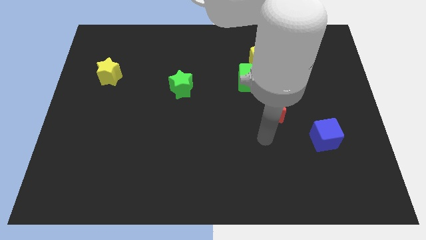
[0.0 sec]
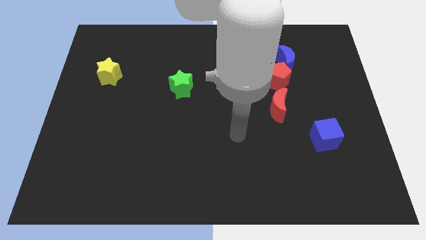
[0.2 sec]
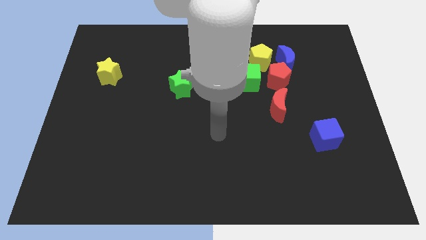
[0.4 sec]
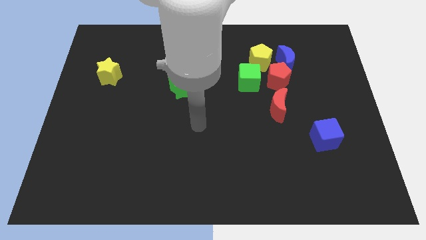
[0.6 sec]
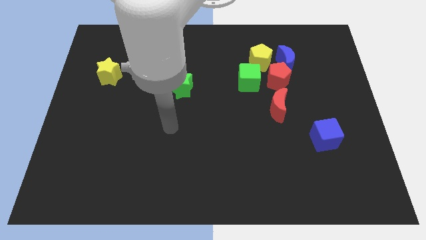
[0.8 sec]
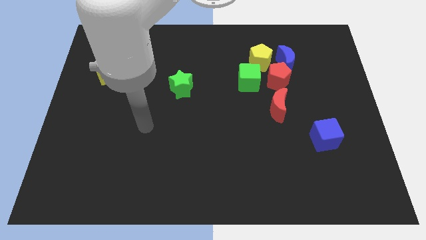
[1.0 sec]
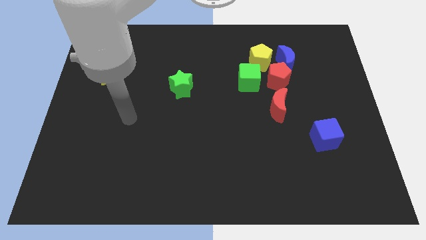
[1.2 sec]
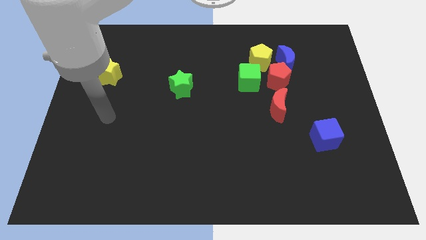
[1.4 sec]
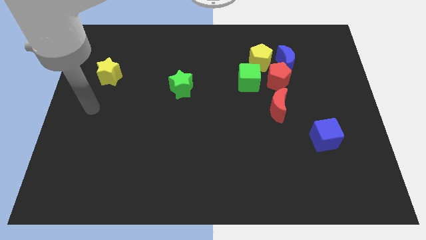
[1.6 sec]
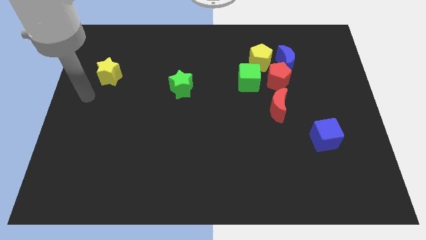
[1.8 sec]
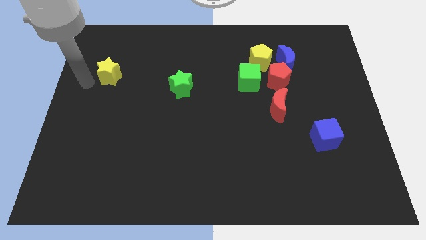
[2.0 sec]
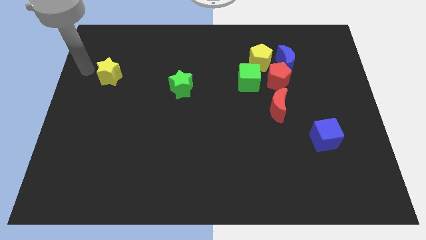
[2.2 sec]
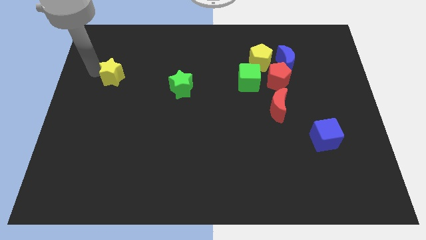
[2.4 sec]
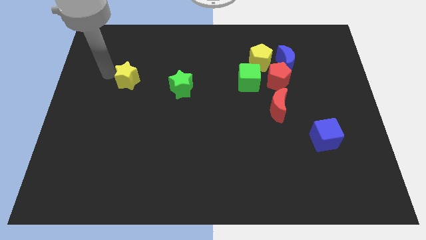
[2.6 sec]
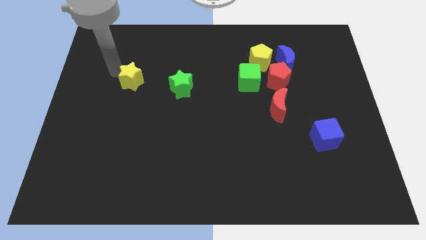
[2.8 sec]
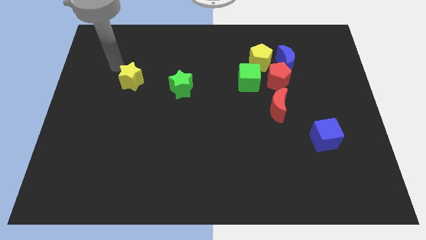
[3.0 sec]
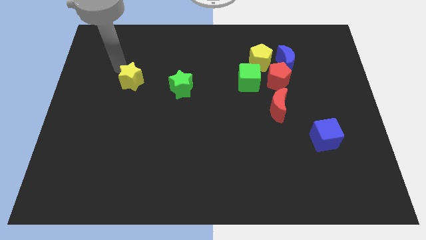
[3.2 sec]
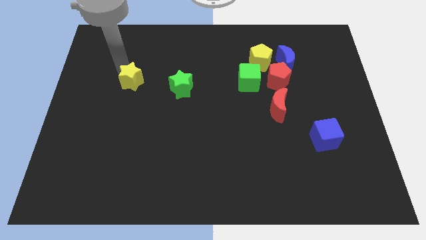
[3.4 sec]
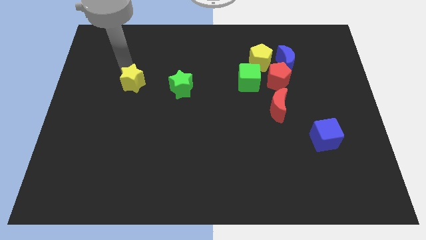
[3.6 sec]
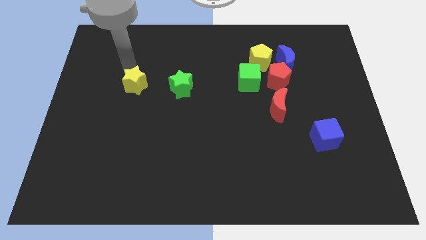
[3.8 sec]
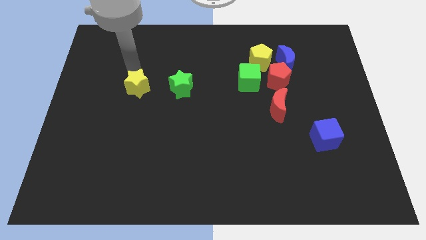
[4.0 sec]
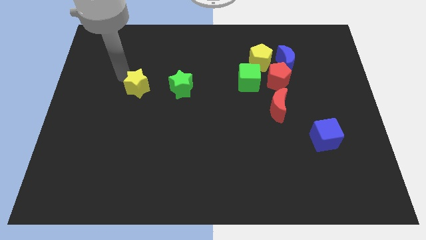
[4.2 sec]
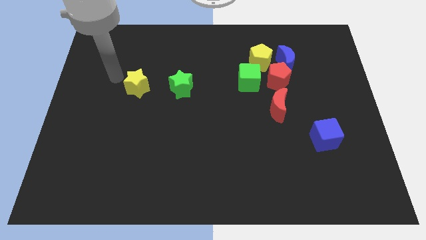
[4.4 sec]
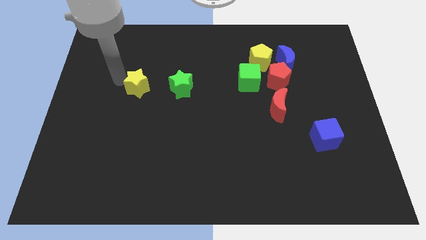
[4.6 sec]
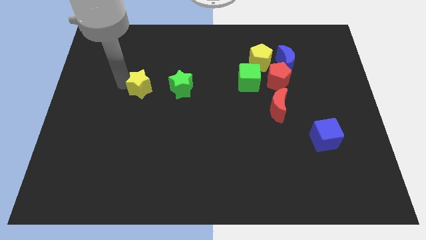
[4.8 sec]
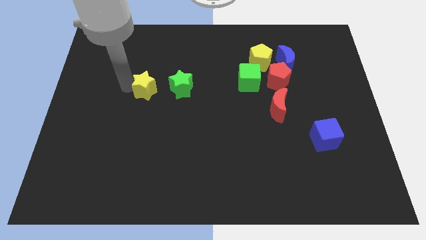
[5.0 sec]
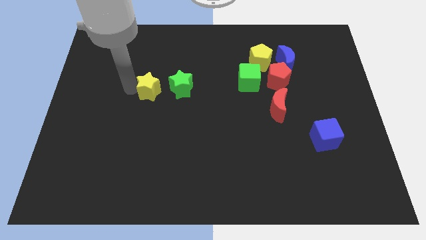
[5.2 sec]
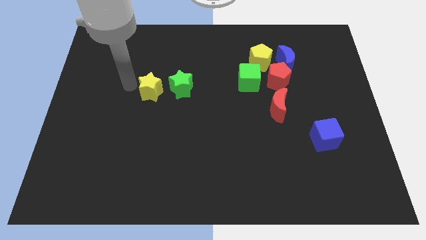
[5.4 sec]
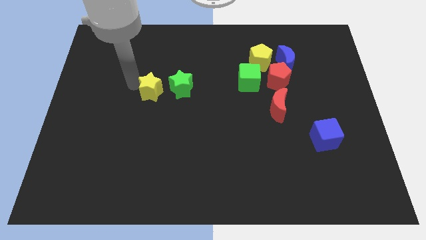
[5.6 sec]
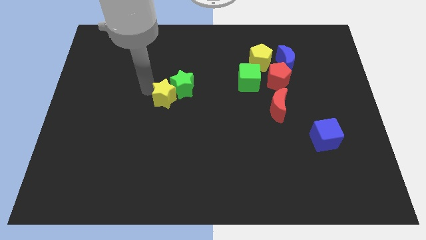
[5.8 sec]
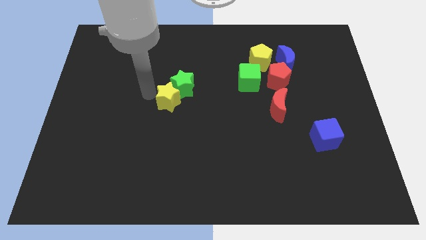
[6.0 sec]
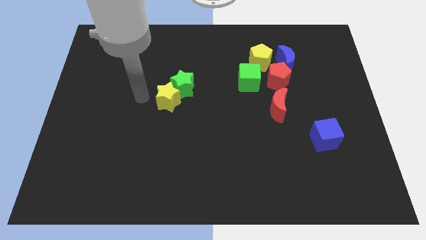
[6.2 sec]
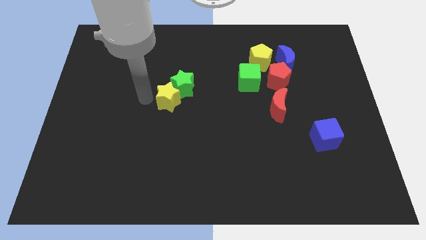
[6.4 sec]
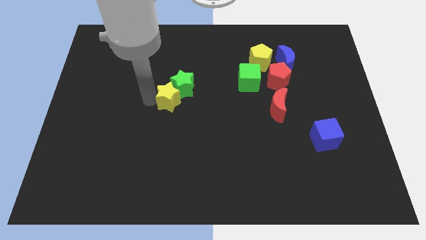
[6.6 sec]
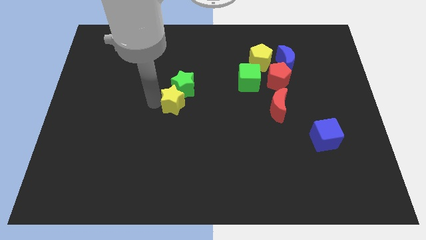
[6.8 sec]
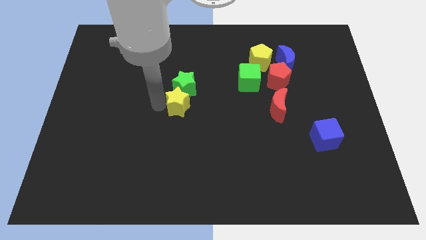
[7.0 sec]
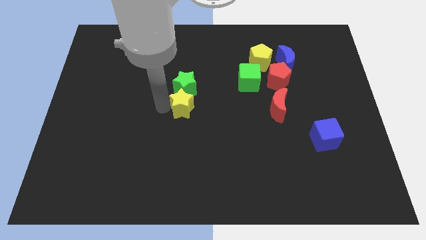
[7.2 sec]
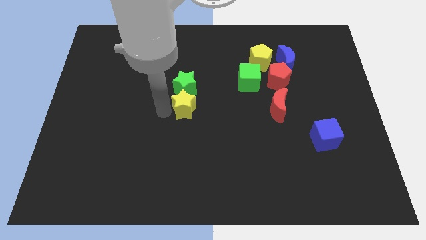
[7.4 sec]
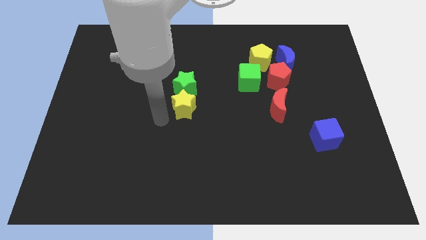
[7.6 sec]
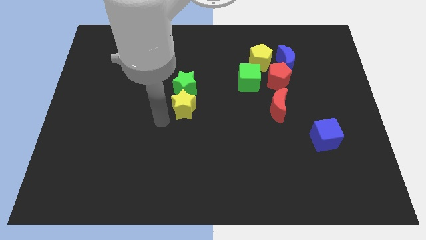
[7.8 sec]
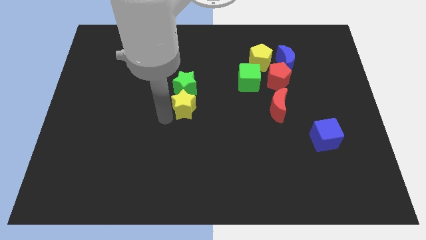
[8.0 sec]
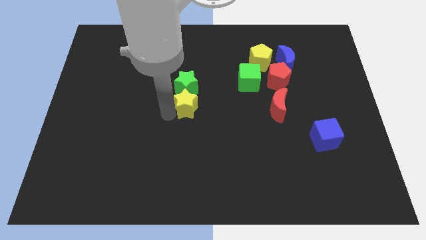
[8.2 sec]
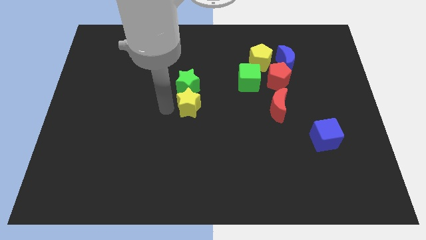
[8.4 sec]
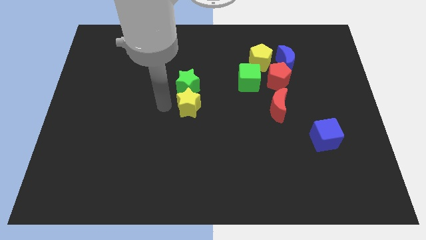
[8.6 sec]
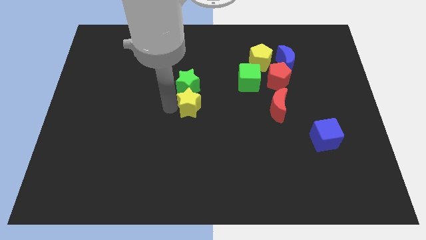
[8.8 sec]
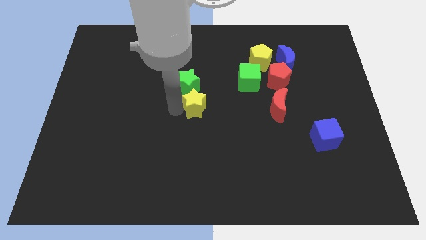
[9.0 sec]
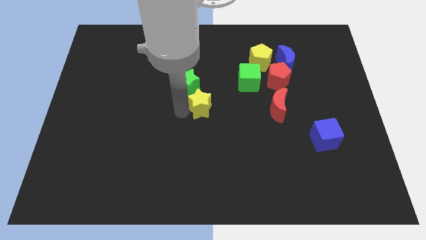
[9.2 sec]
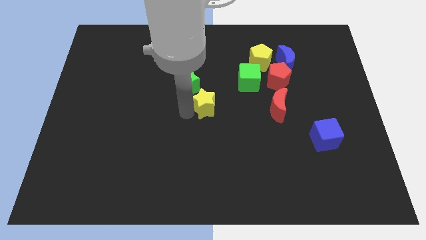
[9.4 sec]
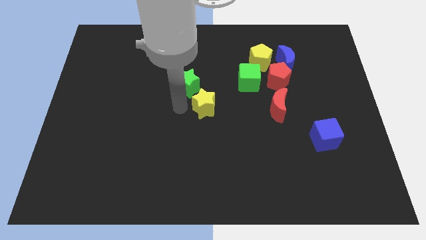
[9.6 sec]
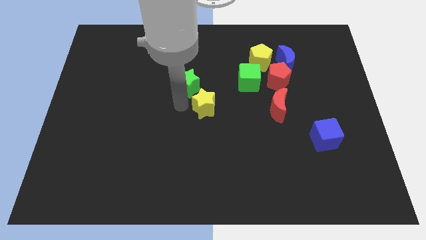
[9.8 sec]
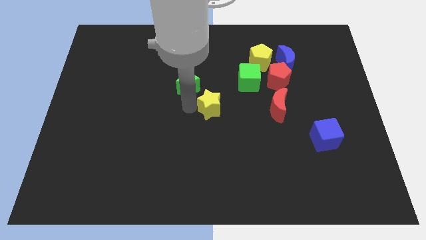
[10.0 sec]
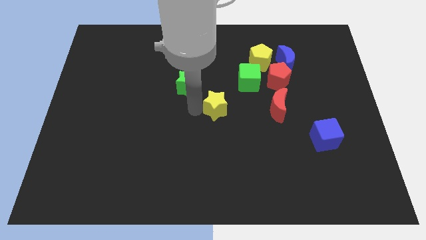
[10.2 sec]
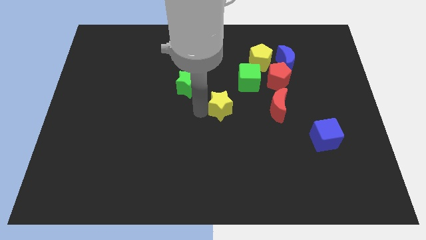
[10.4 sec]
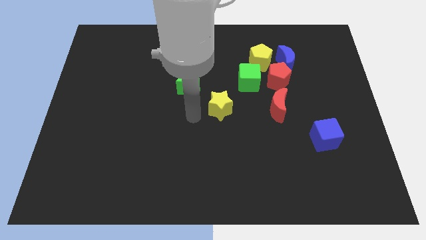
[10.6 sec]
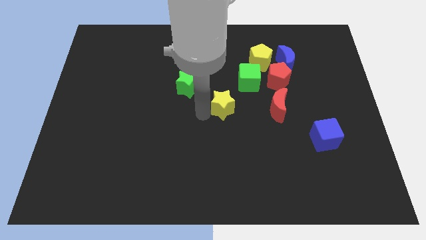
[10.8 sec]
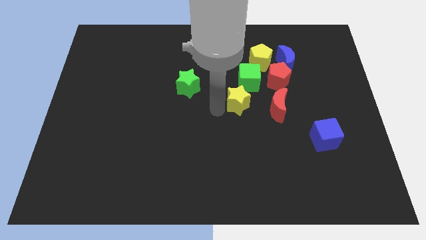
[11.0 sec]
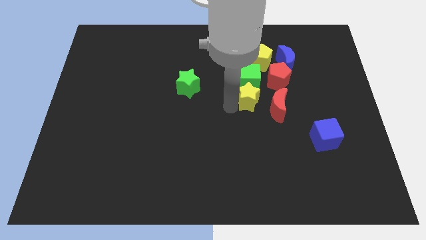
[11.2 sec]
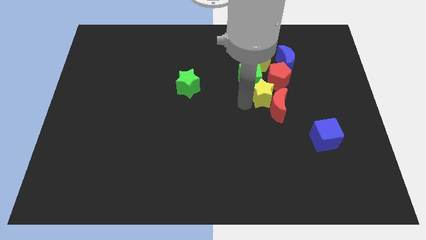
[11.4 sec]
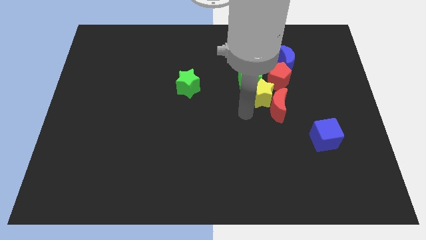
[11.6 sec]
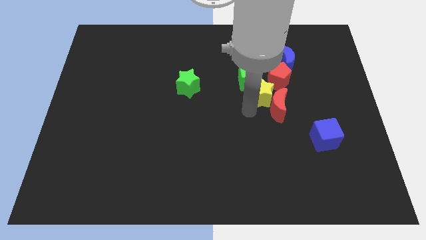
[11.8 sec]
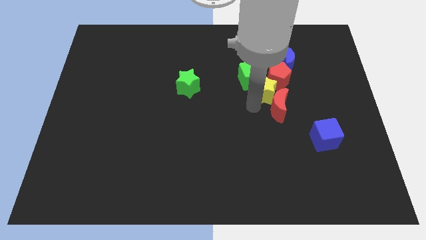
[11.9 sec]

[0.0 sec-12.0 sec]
push the yellow star towards the red pentagon

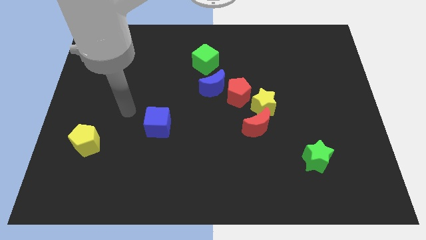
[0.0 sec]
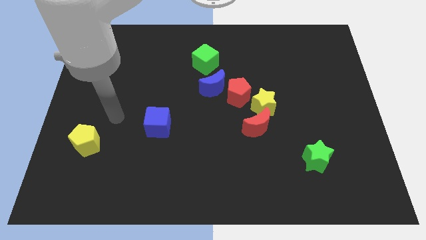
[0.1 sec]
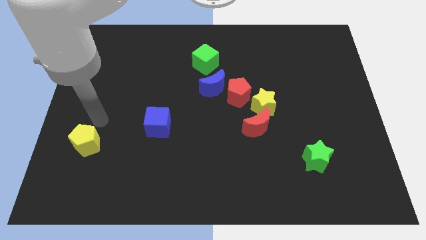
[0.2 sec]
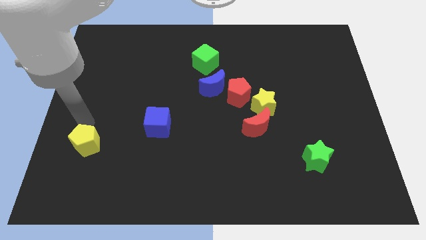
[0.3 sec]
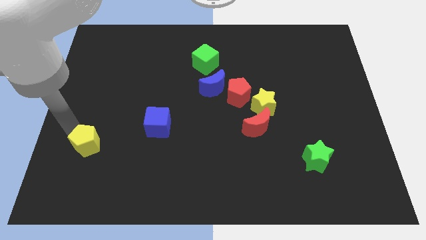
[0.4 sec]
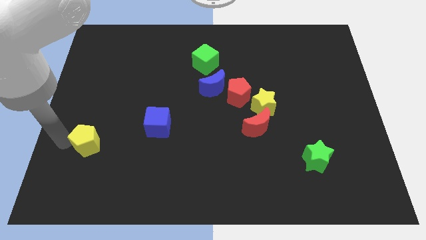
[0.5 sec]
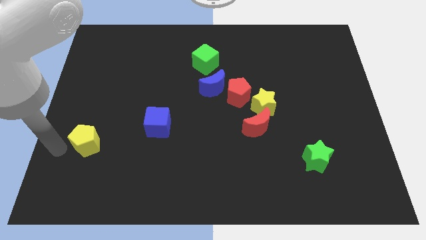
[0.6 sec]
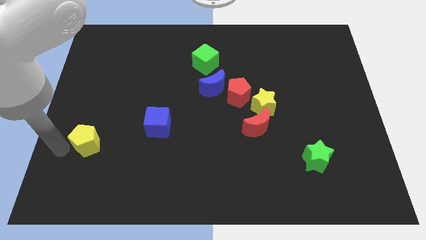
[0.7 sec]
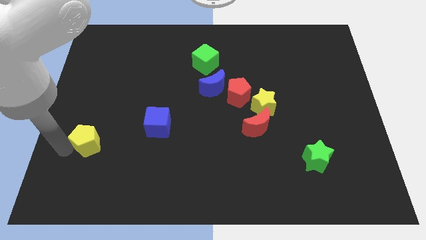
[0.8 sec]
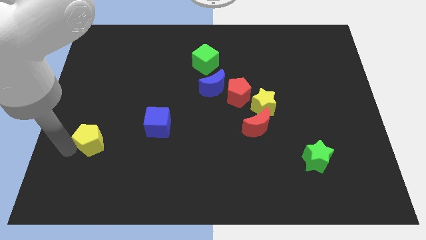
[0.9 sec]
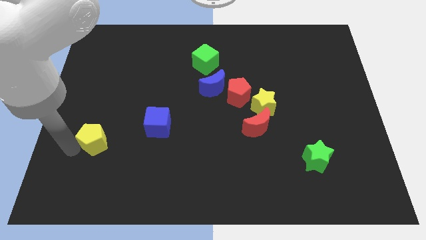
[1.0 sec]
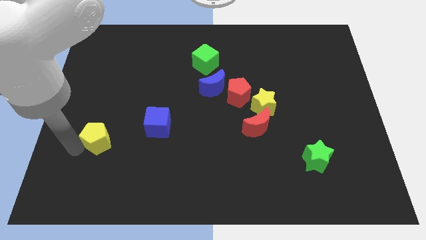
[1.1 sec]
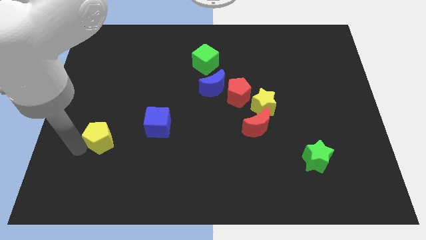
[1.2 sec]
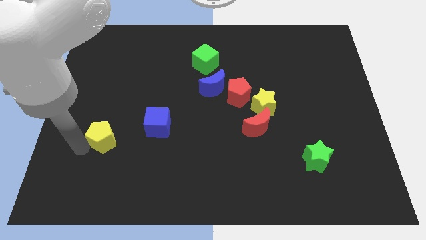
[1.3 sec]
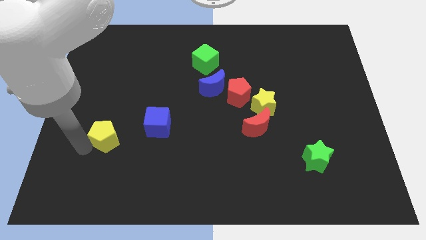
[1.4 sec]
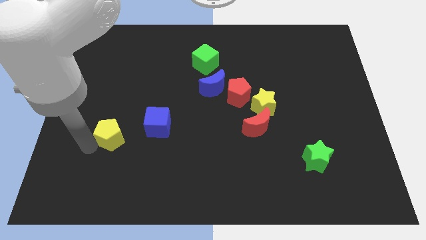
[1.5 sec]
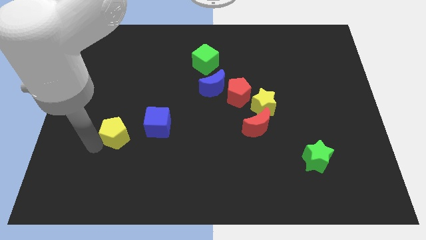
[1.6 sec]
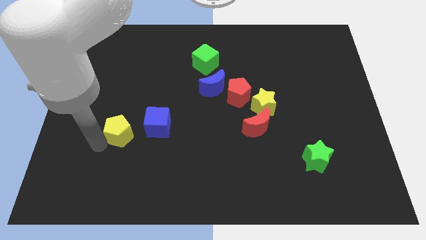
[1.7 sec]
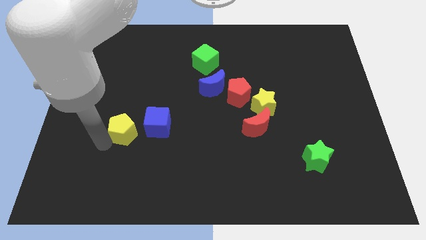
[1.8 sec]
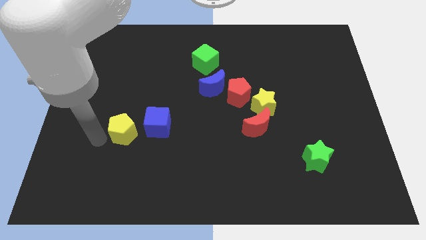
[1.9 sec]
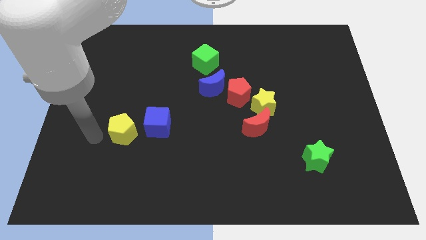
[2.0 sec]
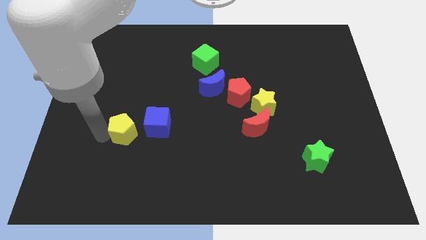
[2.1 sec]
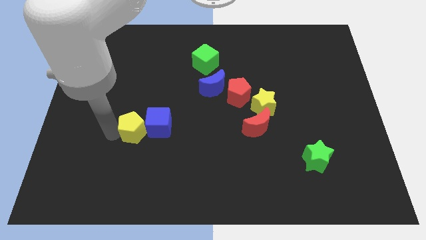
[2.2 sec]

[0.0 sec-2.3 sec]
move the yellow pentagon towards the blue cube
